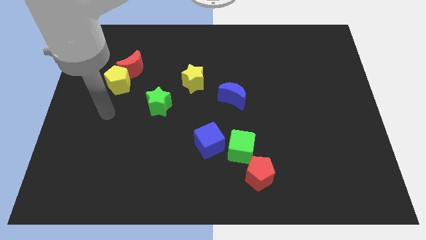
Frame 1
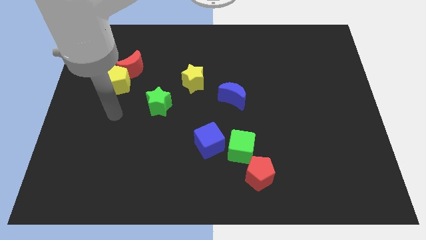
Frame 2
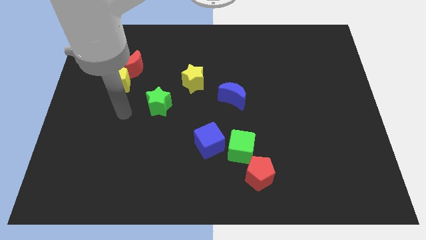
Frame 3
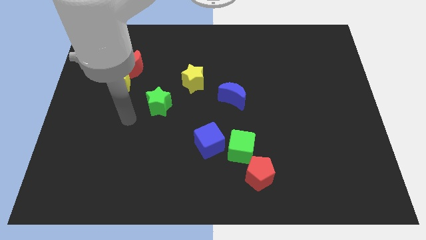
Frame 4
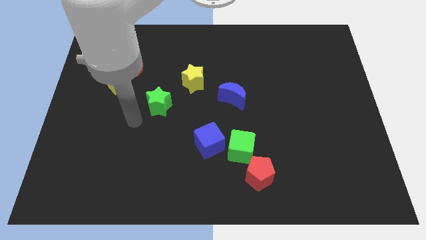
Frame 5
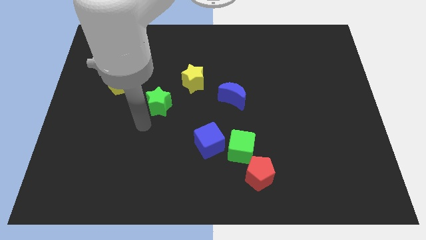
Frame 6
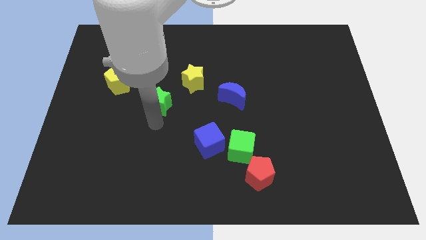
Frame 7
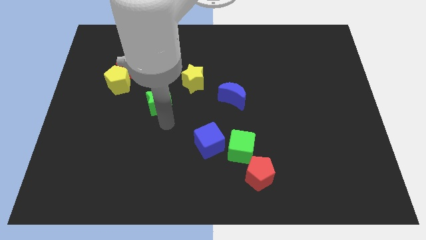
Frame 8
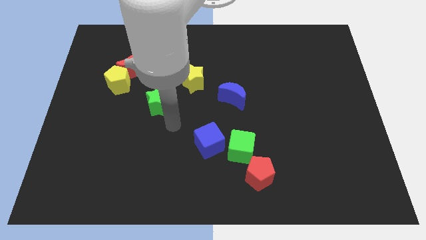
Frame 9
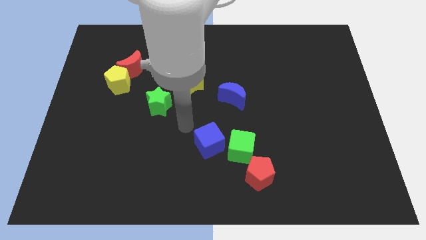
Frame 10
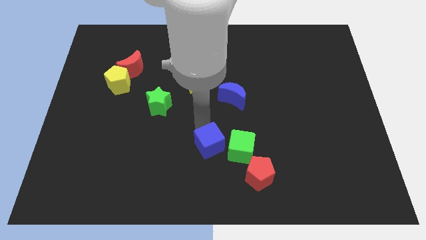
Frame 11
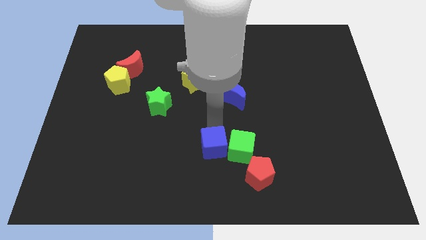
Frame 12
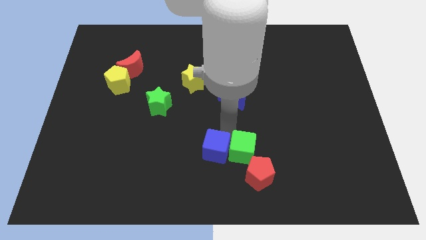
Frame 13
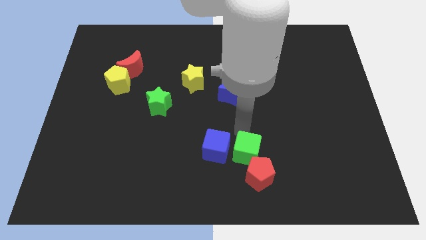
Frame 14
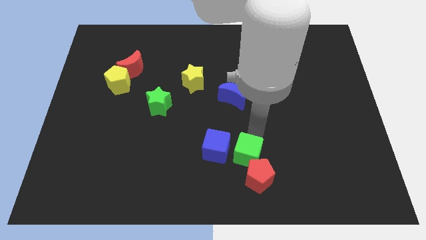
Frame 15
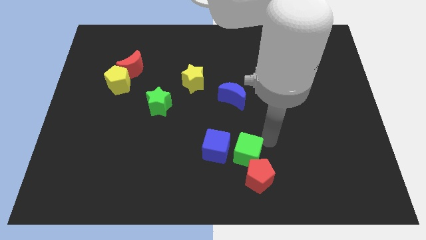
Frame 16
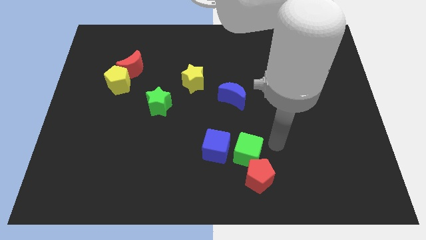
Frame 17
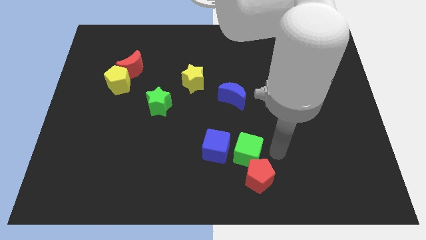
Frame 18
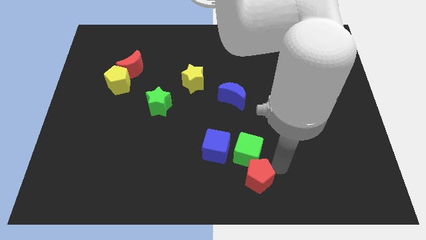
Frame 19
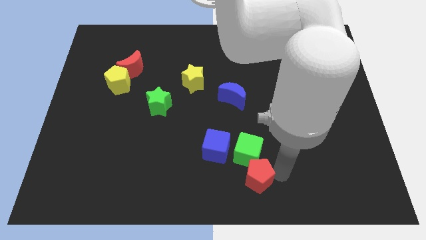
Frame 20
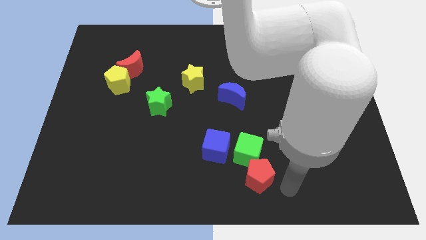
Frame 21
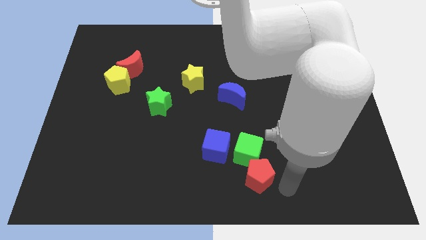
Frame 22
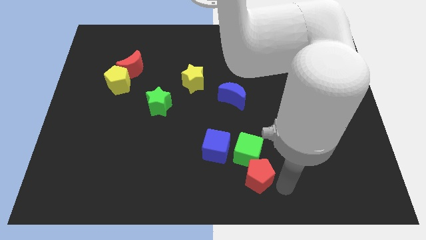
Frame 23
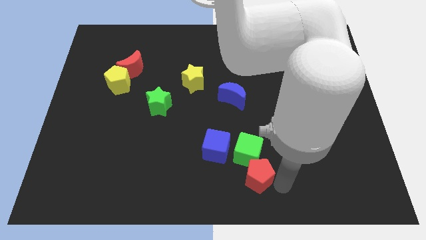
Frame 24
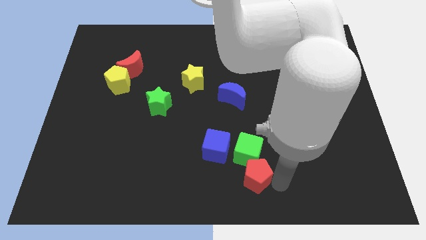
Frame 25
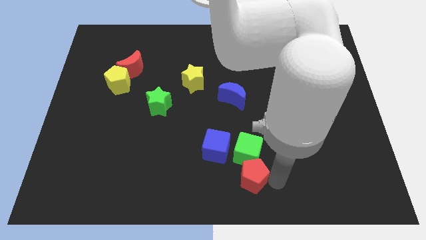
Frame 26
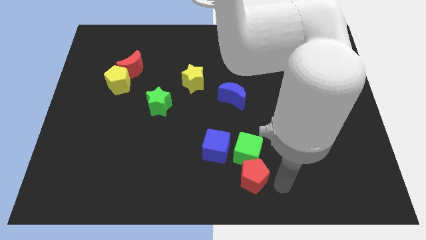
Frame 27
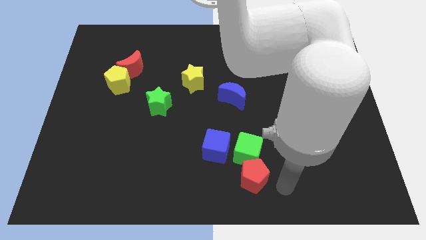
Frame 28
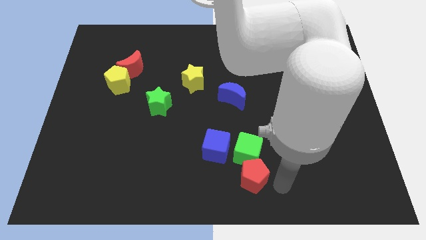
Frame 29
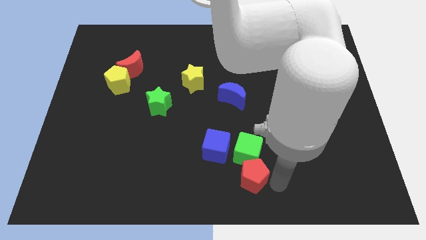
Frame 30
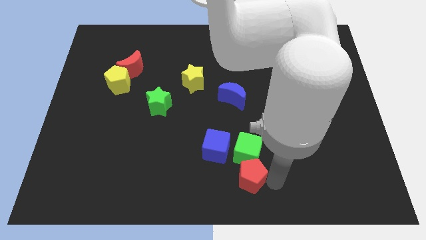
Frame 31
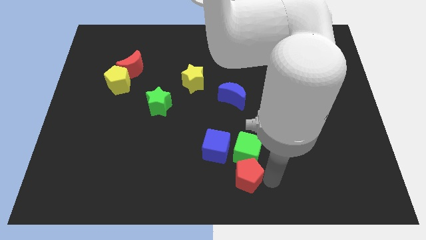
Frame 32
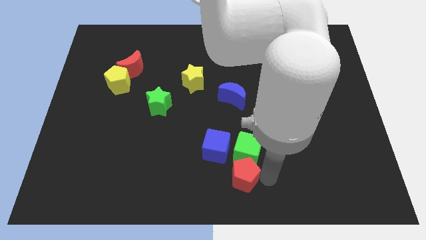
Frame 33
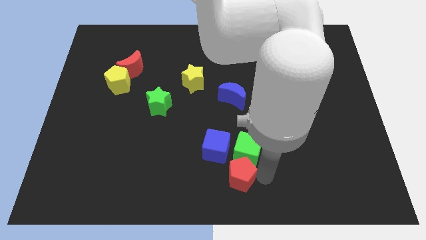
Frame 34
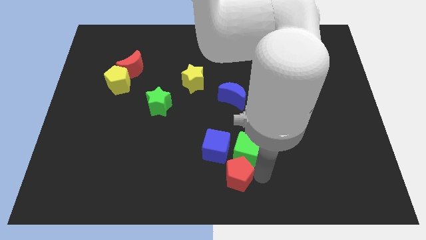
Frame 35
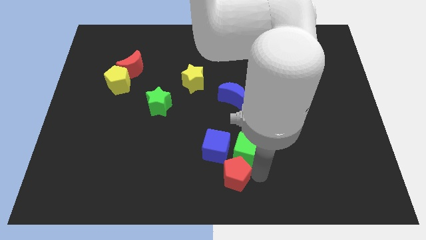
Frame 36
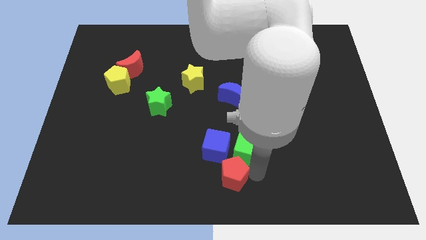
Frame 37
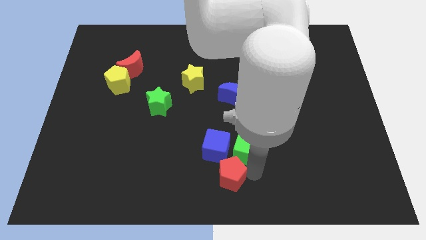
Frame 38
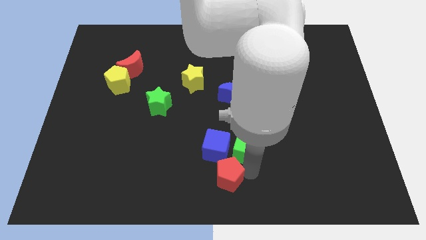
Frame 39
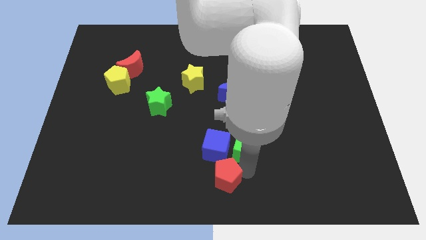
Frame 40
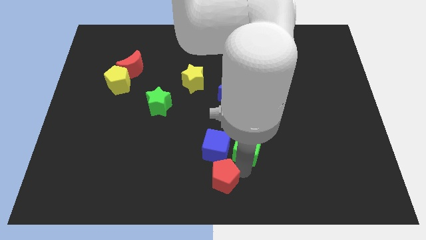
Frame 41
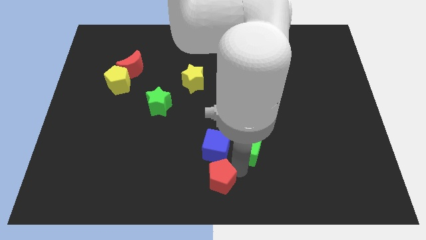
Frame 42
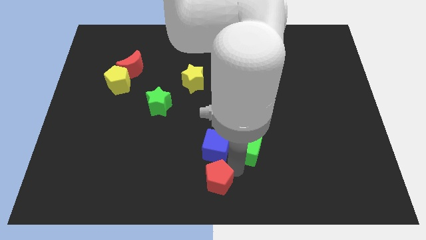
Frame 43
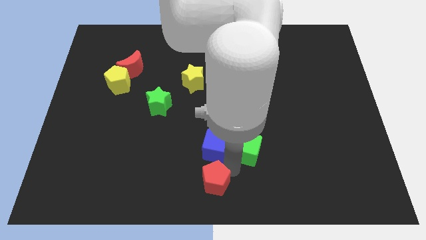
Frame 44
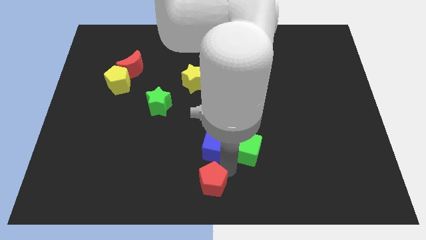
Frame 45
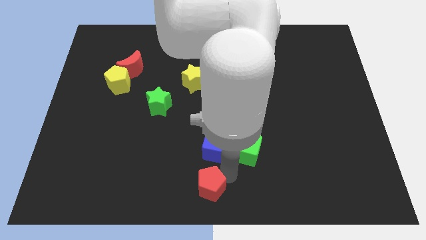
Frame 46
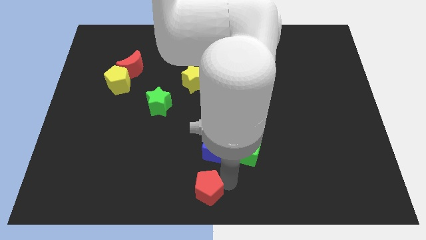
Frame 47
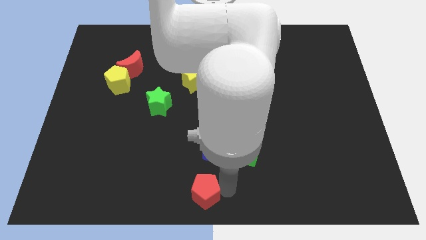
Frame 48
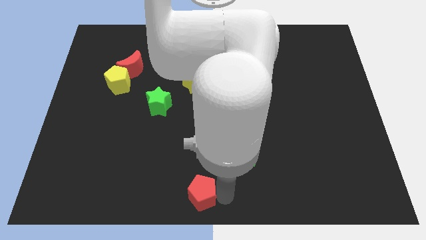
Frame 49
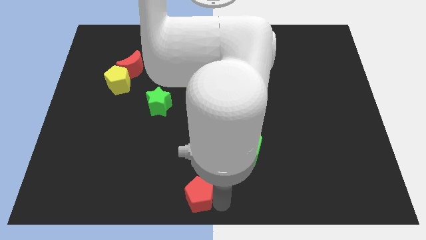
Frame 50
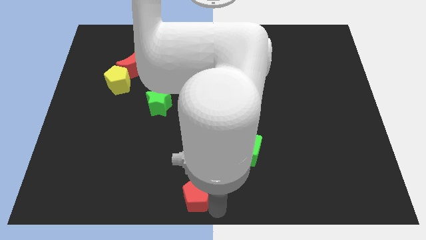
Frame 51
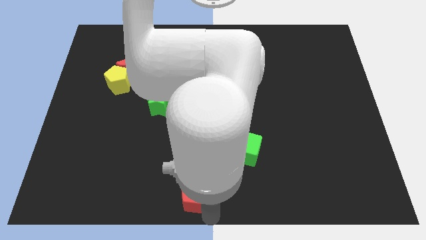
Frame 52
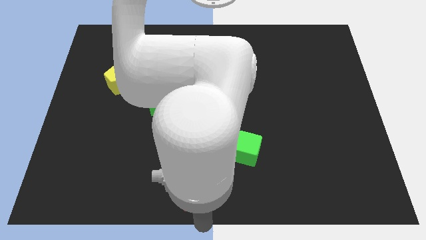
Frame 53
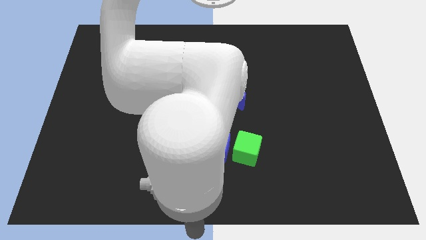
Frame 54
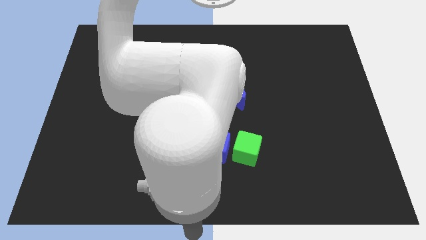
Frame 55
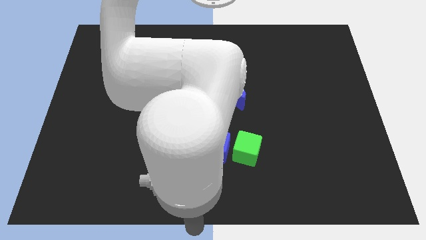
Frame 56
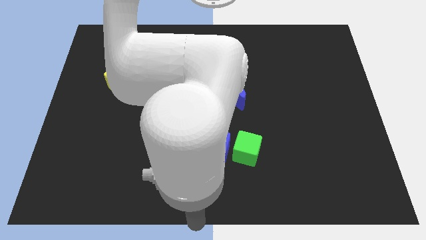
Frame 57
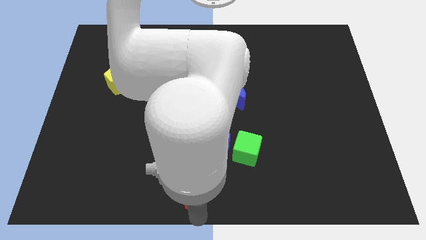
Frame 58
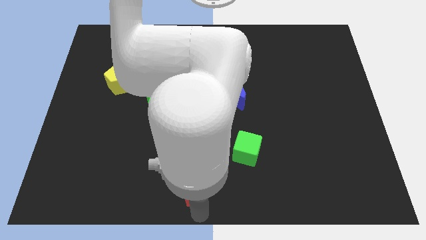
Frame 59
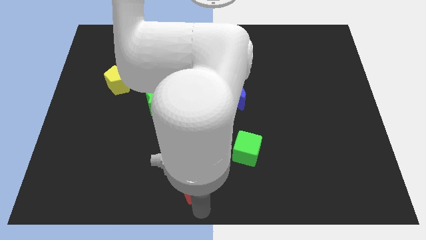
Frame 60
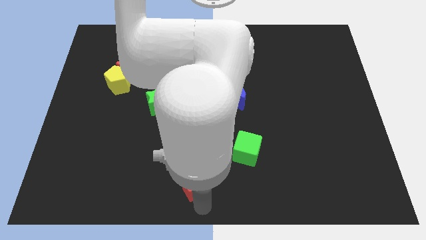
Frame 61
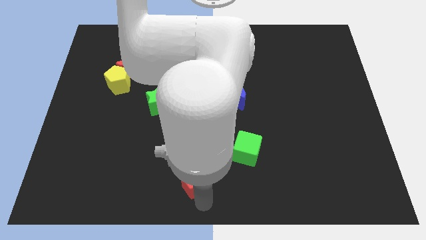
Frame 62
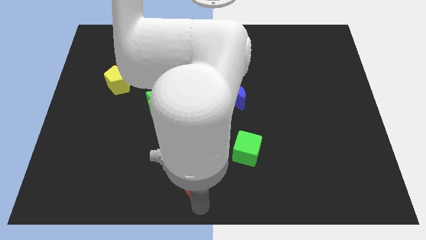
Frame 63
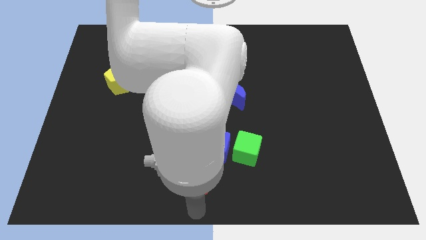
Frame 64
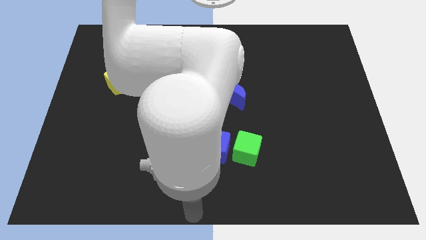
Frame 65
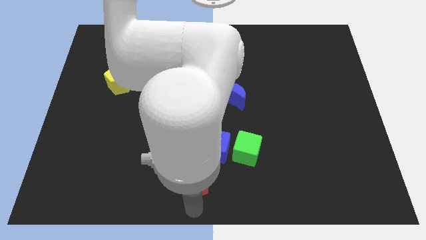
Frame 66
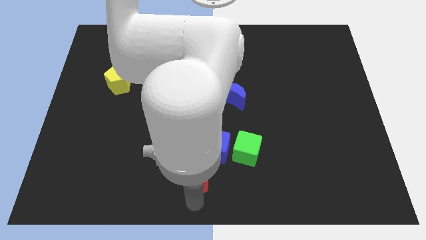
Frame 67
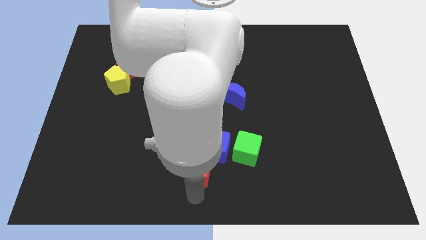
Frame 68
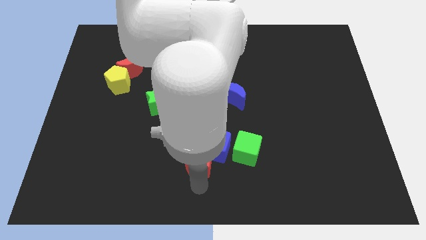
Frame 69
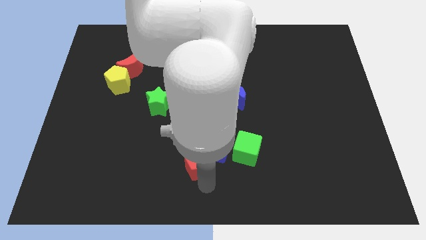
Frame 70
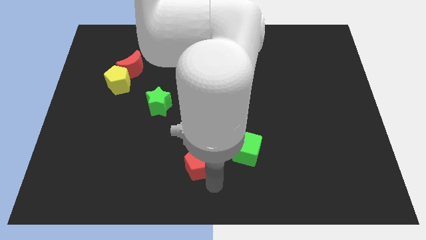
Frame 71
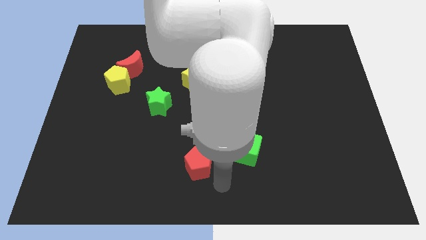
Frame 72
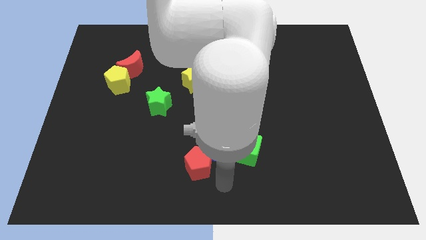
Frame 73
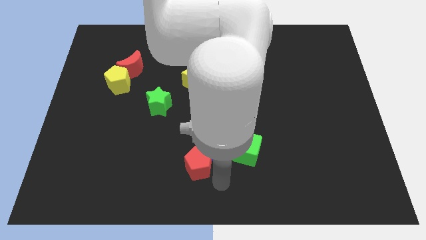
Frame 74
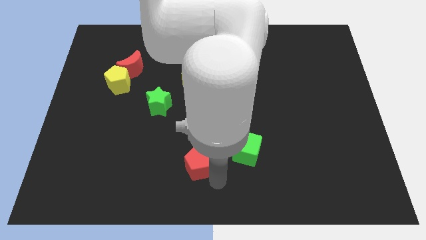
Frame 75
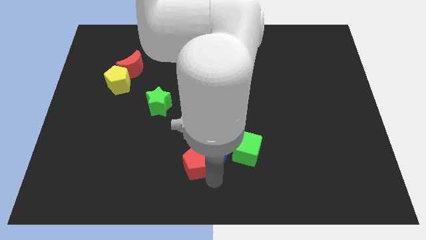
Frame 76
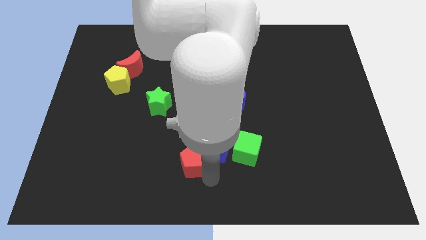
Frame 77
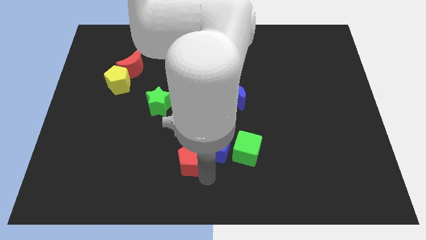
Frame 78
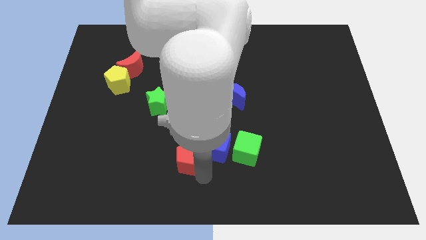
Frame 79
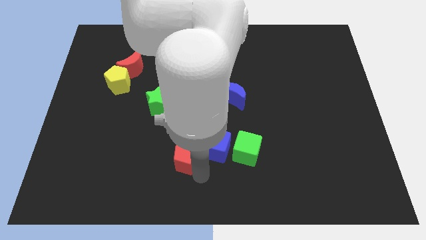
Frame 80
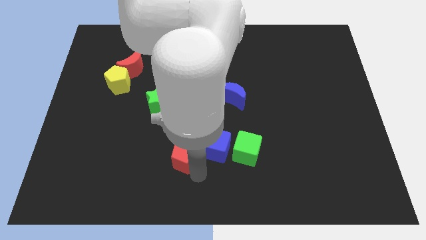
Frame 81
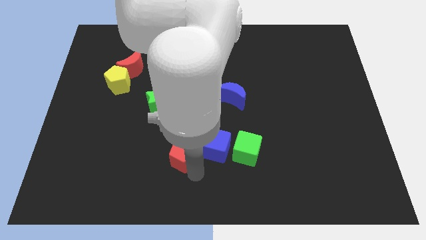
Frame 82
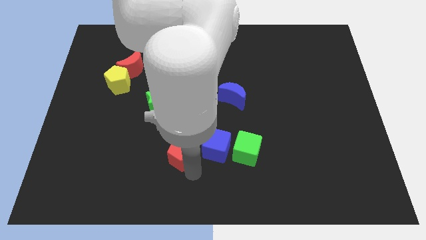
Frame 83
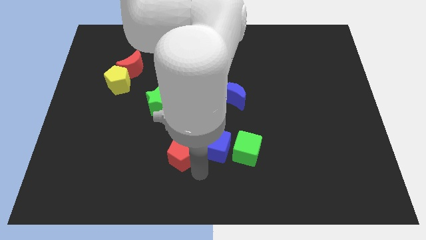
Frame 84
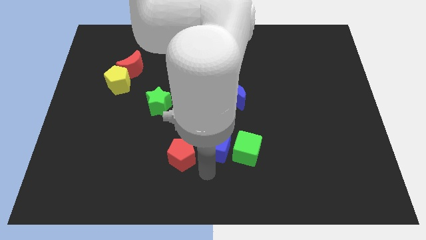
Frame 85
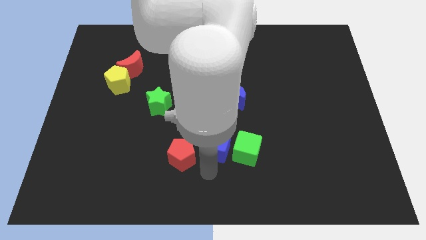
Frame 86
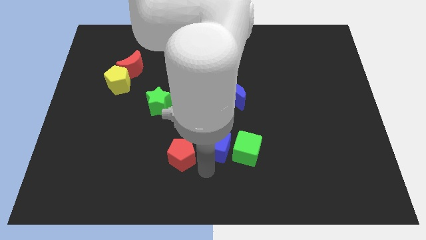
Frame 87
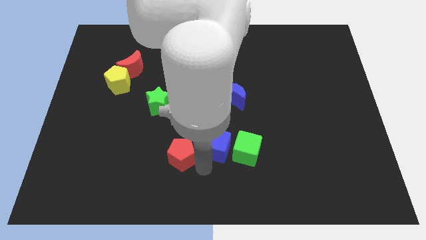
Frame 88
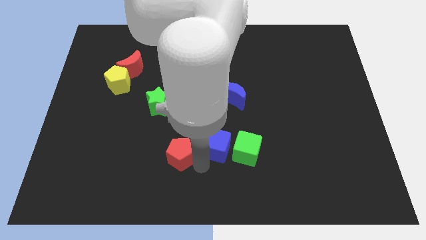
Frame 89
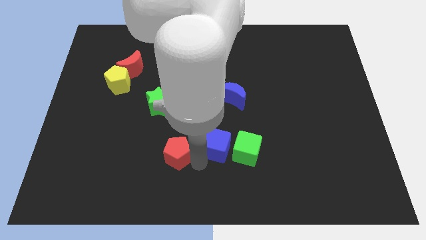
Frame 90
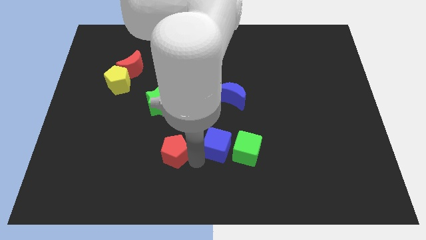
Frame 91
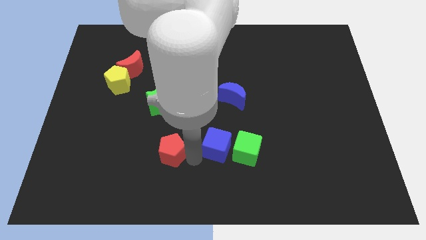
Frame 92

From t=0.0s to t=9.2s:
slide the red pentagon to the bottom side of the green star
